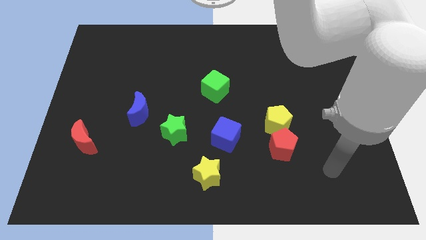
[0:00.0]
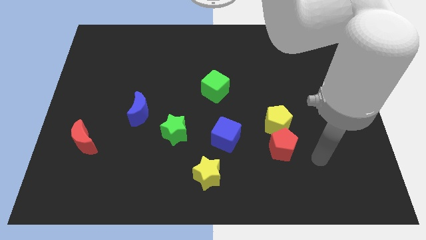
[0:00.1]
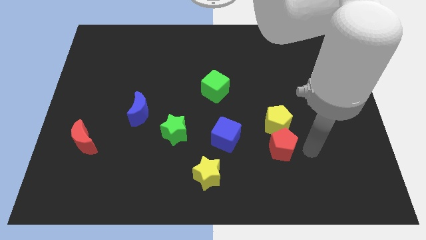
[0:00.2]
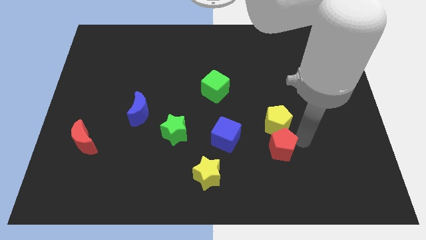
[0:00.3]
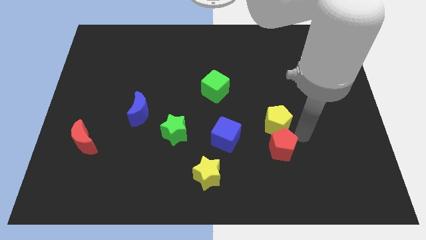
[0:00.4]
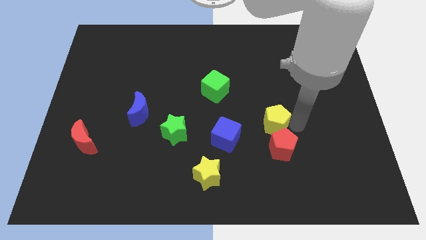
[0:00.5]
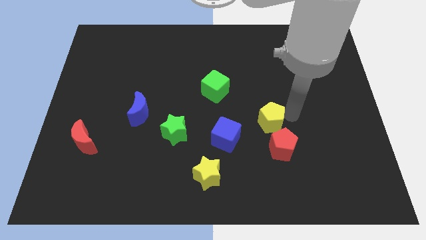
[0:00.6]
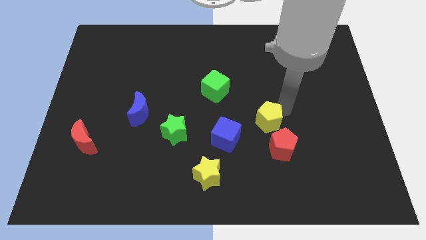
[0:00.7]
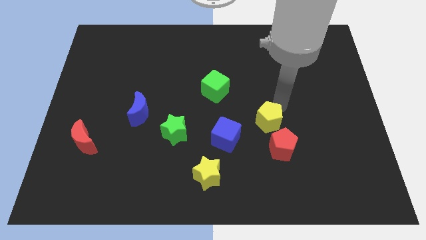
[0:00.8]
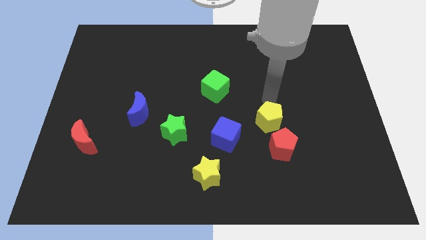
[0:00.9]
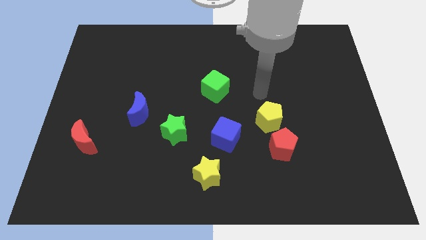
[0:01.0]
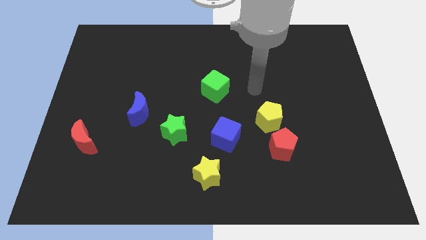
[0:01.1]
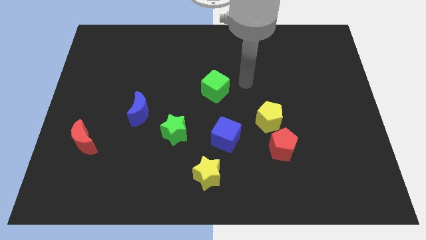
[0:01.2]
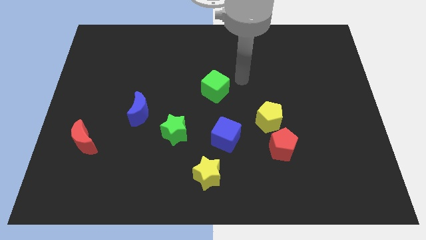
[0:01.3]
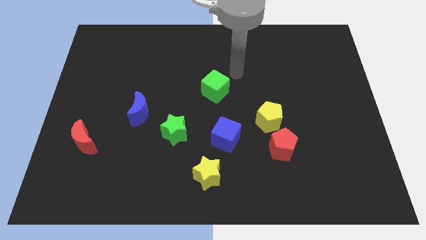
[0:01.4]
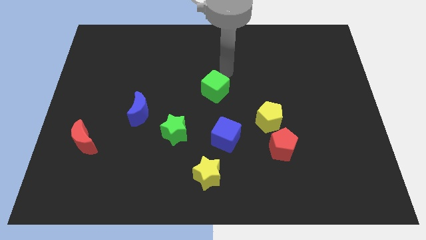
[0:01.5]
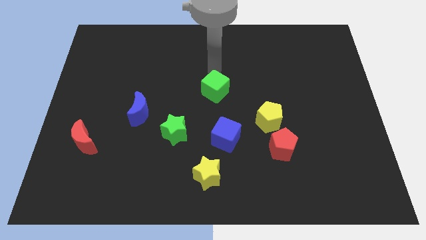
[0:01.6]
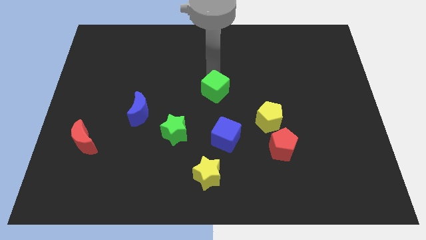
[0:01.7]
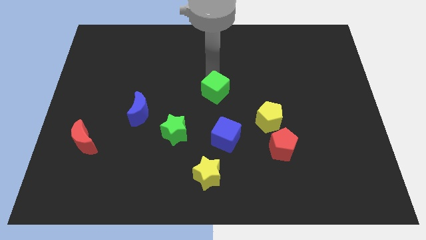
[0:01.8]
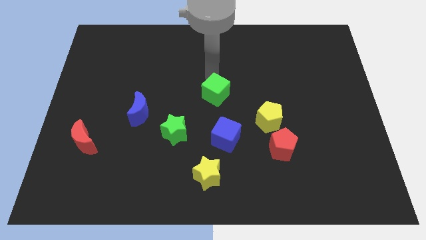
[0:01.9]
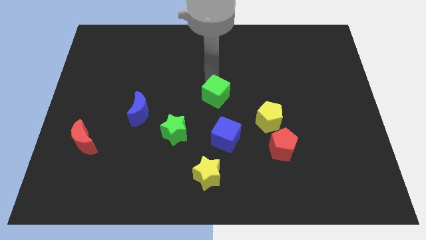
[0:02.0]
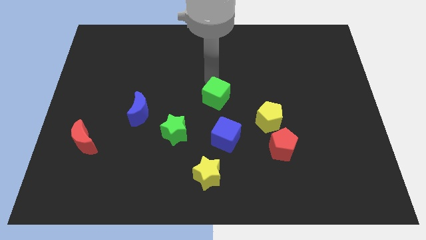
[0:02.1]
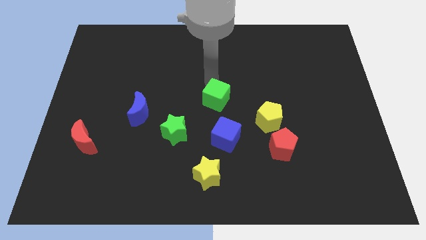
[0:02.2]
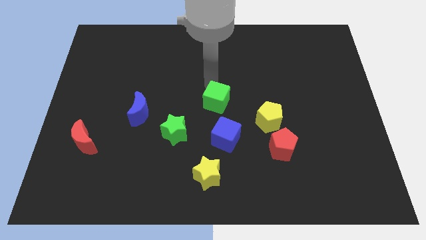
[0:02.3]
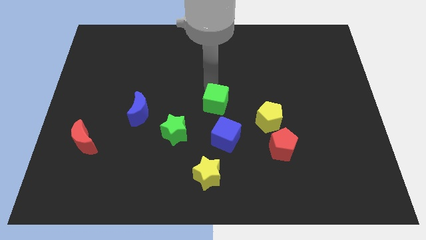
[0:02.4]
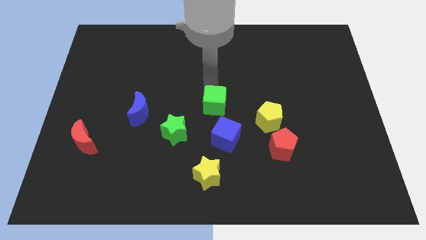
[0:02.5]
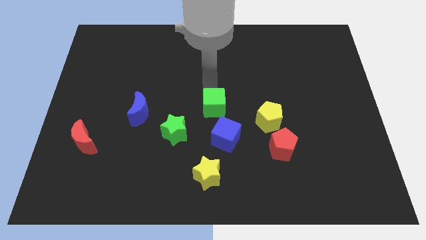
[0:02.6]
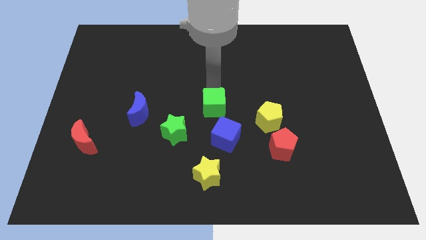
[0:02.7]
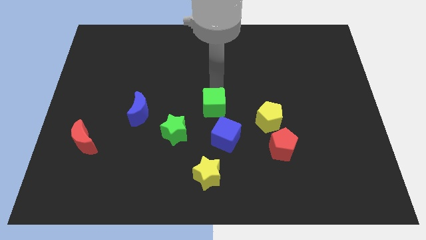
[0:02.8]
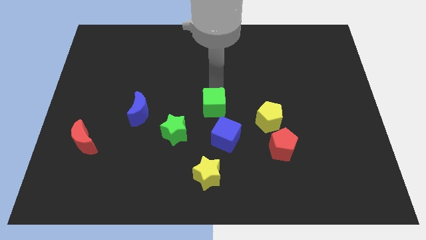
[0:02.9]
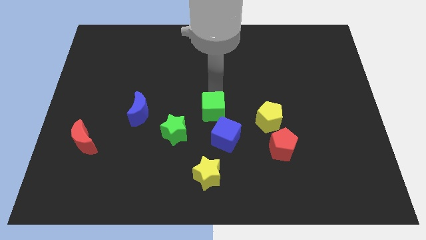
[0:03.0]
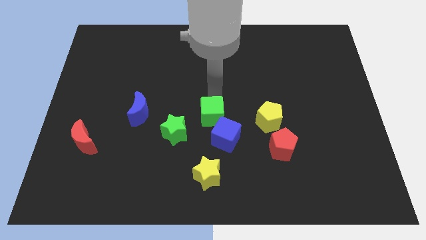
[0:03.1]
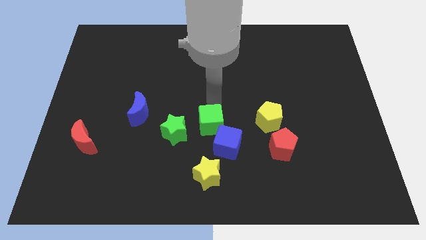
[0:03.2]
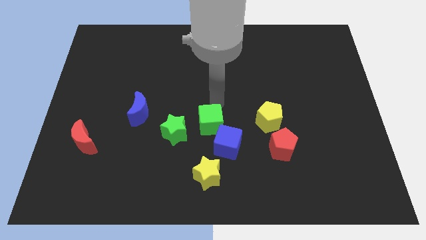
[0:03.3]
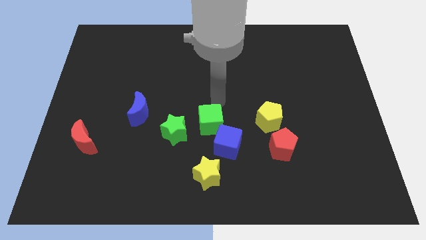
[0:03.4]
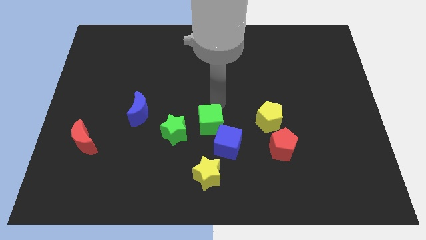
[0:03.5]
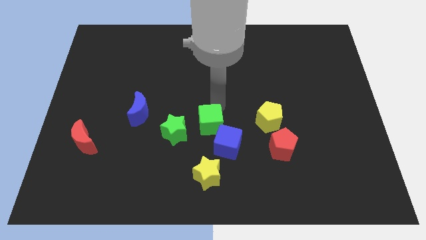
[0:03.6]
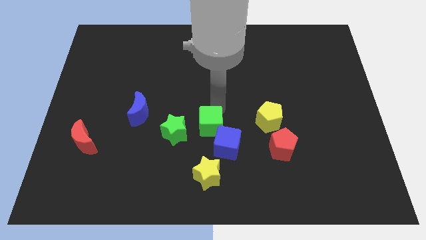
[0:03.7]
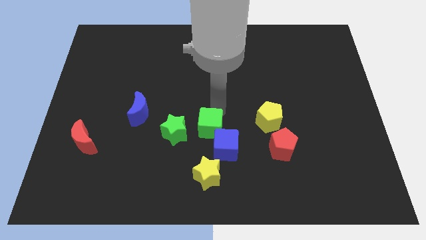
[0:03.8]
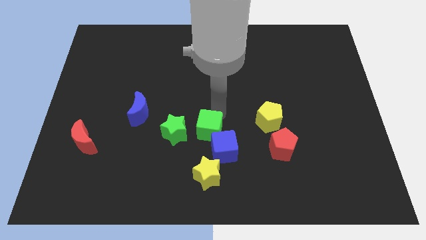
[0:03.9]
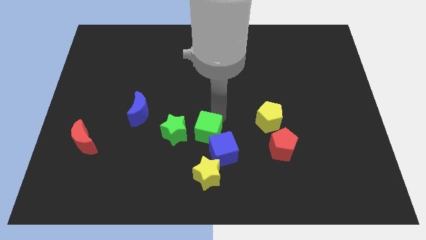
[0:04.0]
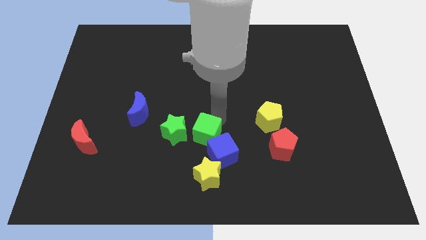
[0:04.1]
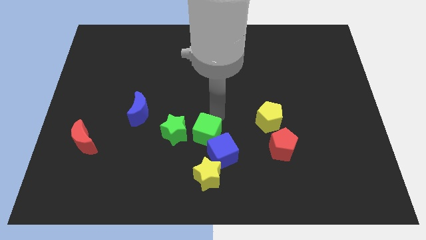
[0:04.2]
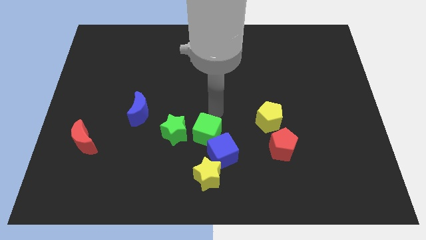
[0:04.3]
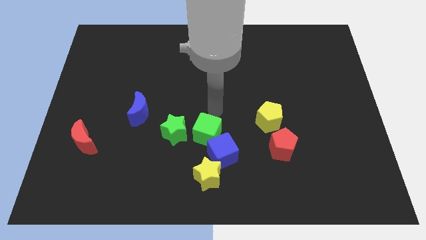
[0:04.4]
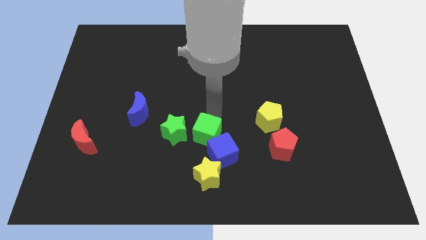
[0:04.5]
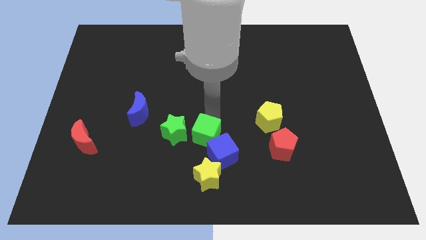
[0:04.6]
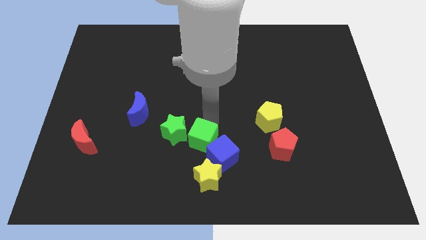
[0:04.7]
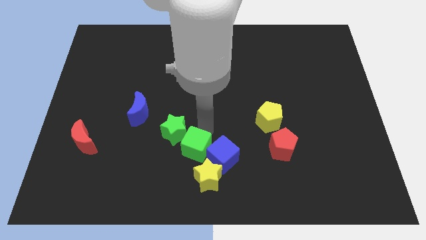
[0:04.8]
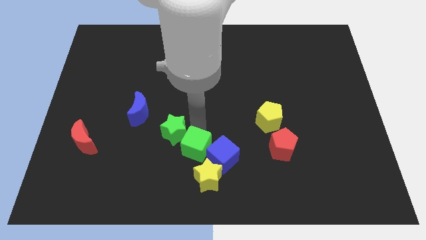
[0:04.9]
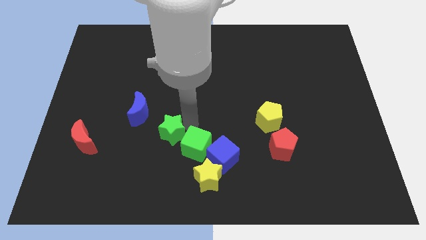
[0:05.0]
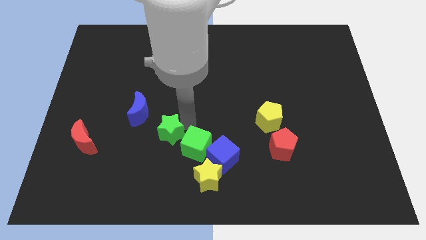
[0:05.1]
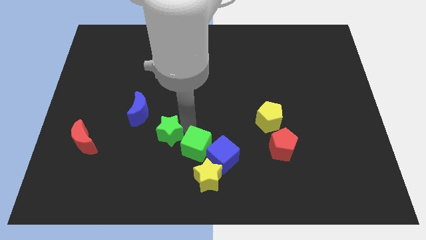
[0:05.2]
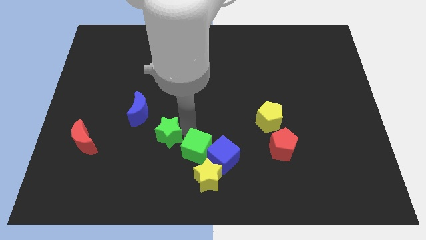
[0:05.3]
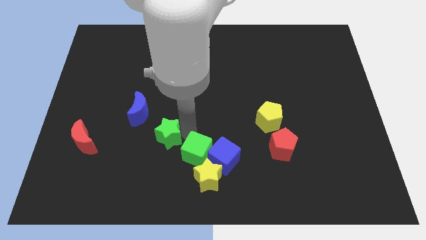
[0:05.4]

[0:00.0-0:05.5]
move the green cube next to the yellow star

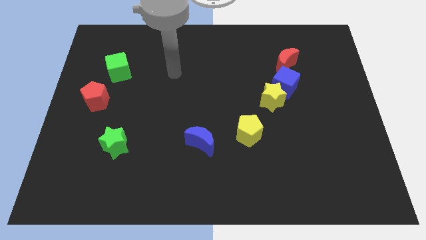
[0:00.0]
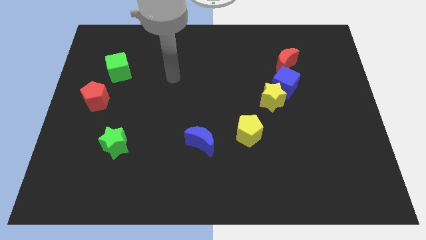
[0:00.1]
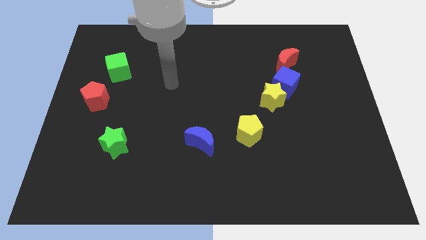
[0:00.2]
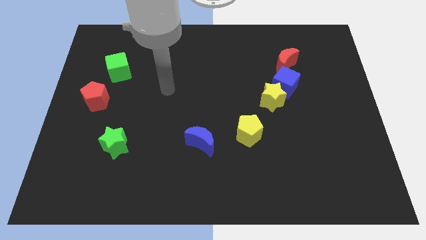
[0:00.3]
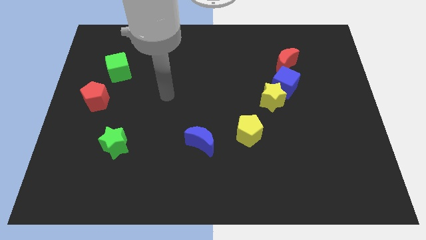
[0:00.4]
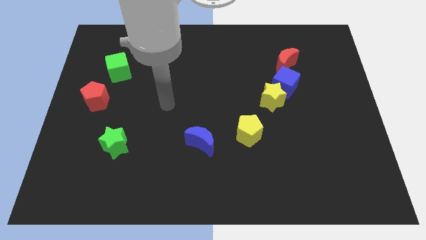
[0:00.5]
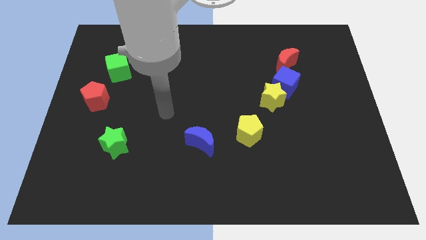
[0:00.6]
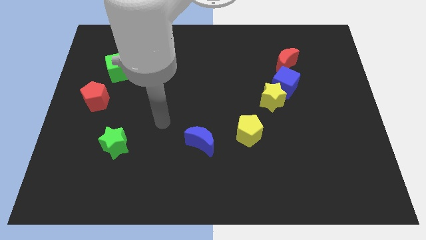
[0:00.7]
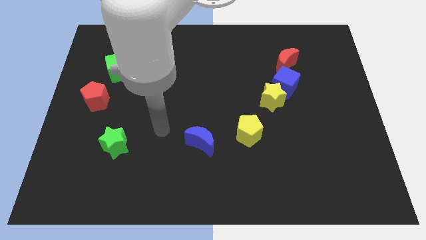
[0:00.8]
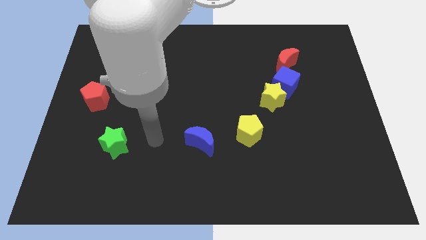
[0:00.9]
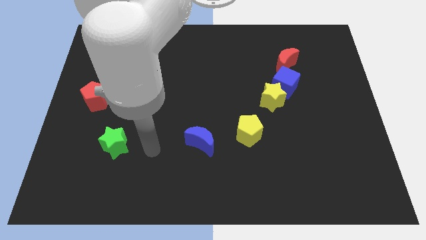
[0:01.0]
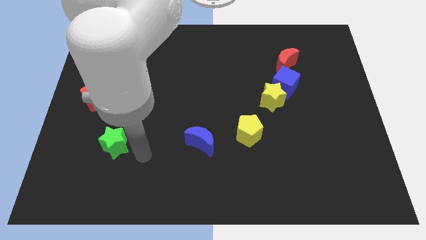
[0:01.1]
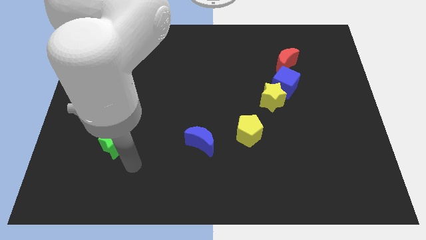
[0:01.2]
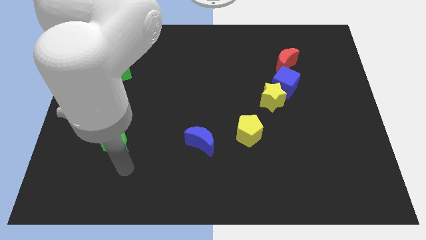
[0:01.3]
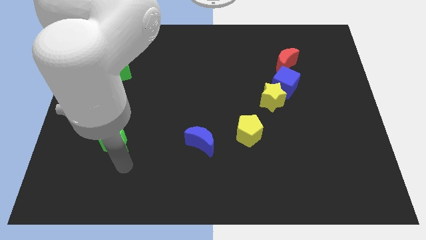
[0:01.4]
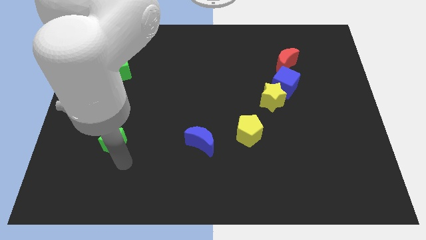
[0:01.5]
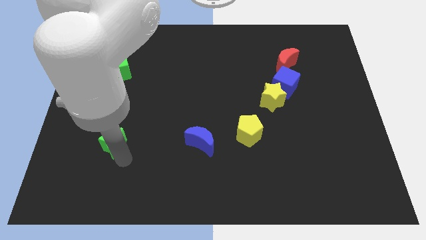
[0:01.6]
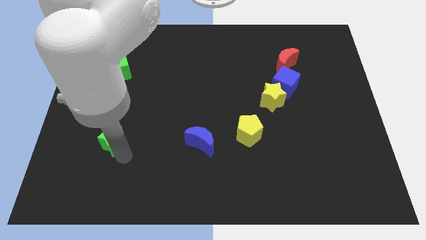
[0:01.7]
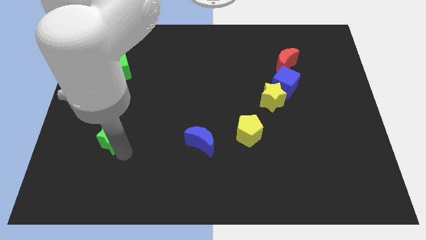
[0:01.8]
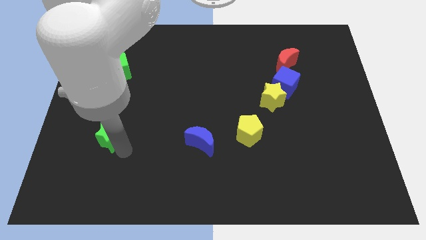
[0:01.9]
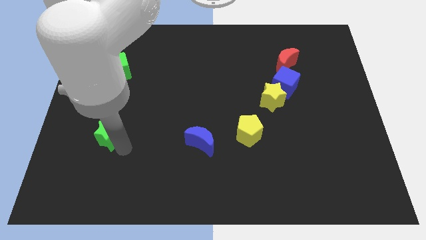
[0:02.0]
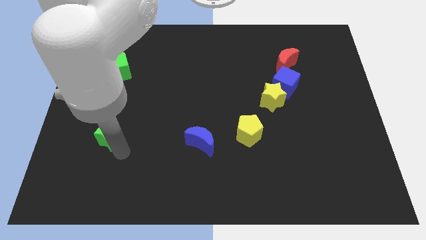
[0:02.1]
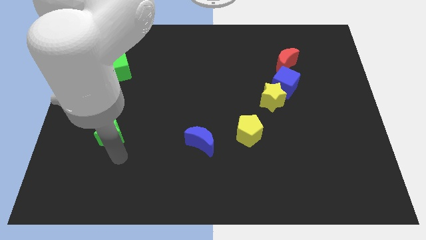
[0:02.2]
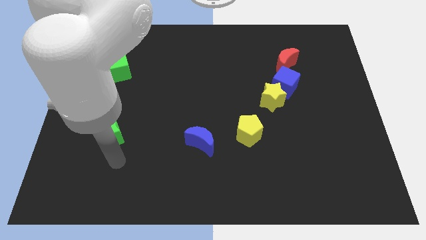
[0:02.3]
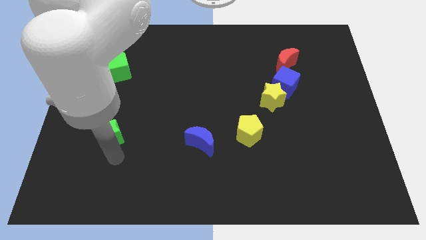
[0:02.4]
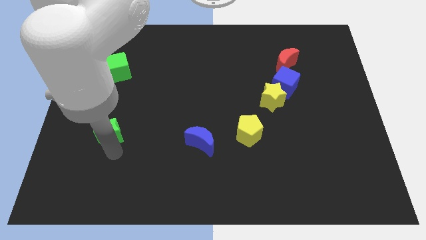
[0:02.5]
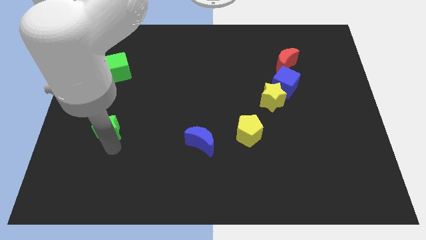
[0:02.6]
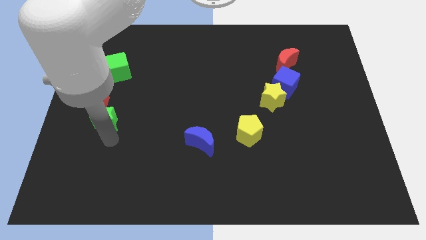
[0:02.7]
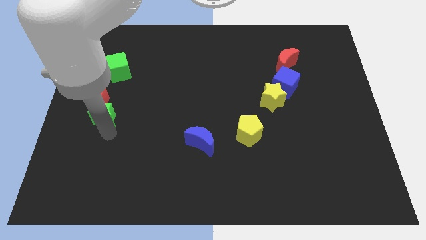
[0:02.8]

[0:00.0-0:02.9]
move the green star to the red pentagon
